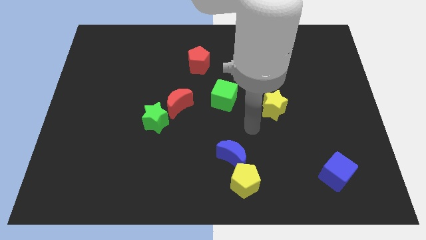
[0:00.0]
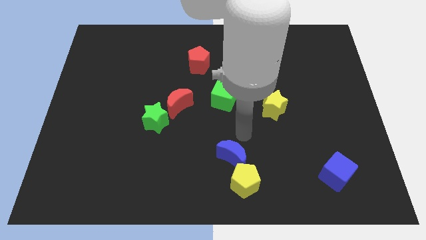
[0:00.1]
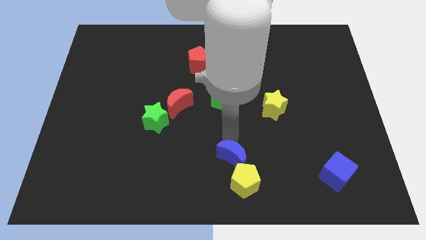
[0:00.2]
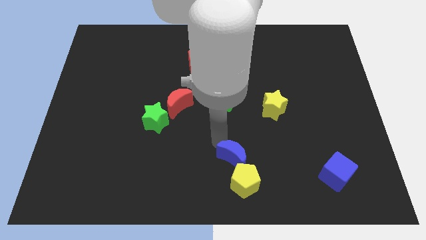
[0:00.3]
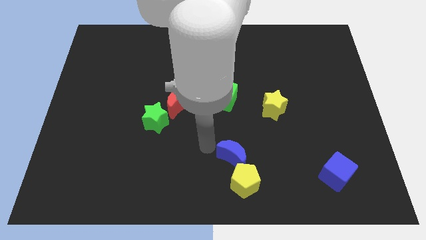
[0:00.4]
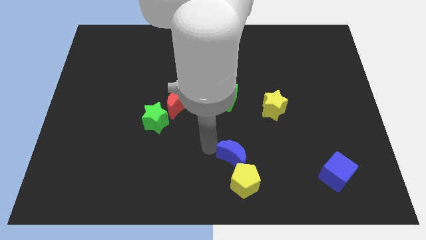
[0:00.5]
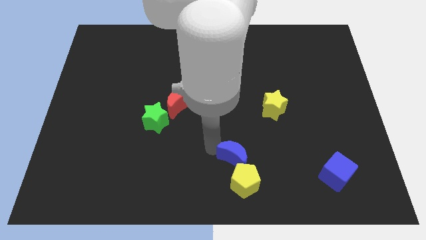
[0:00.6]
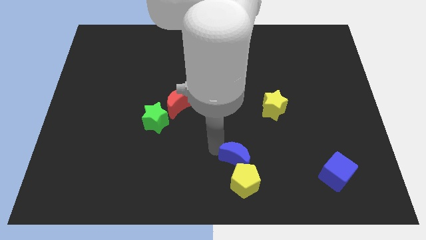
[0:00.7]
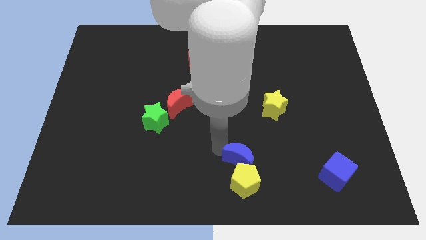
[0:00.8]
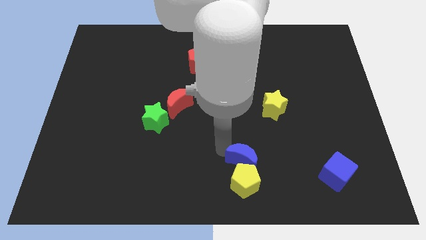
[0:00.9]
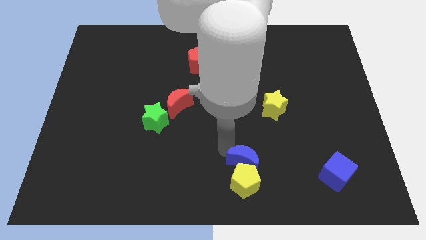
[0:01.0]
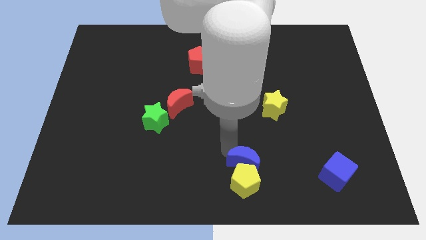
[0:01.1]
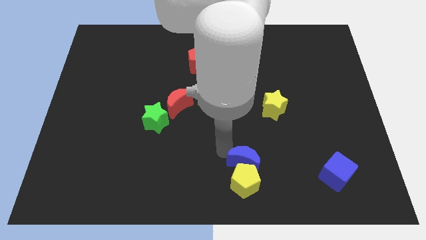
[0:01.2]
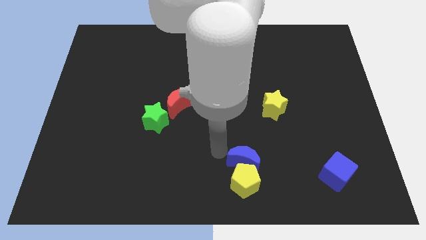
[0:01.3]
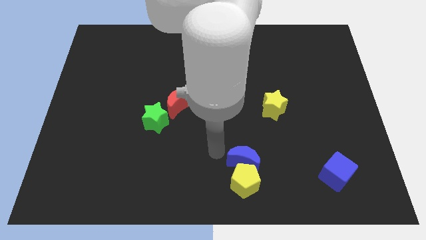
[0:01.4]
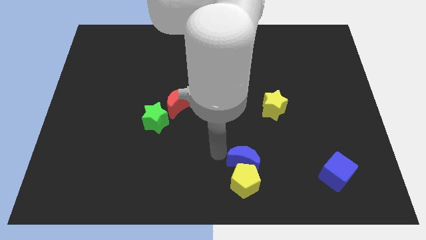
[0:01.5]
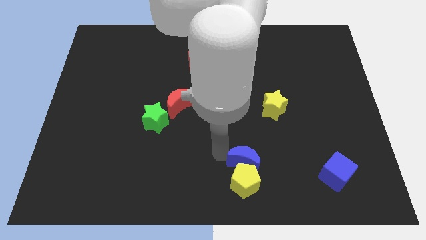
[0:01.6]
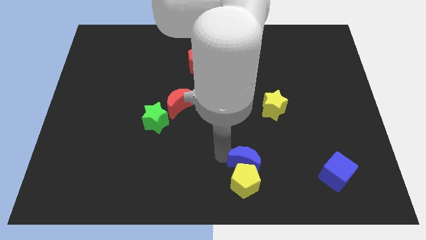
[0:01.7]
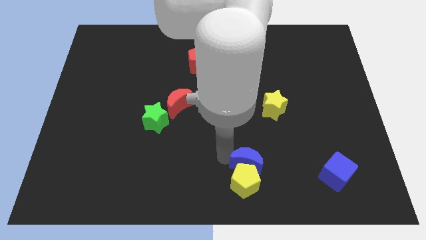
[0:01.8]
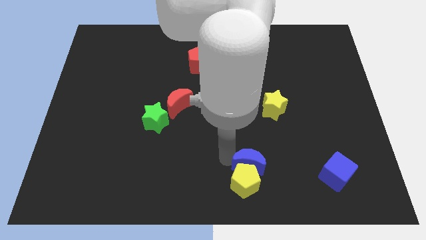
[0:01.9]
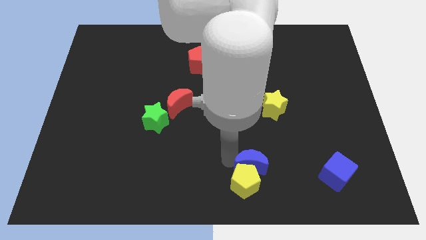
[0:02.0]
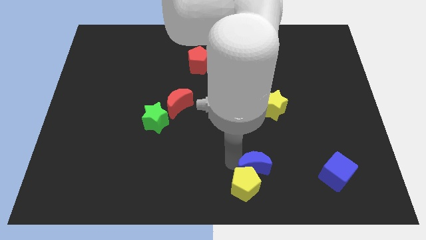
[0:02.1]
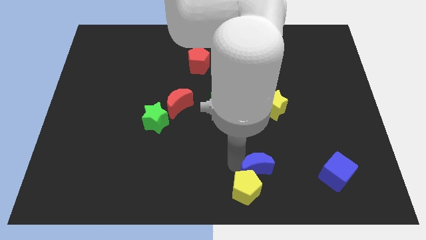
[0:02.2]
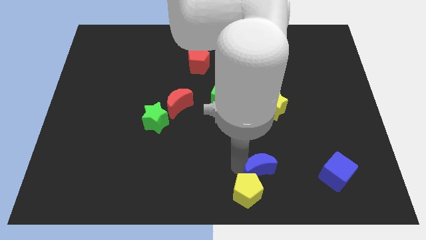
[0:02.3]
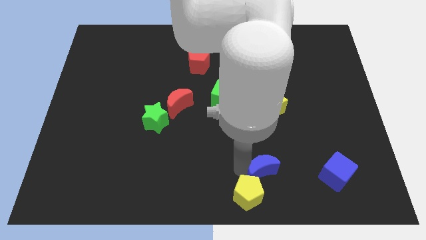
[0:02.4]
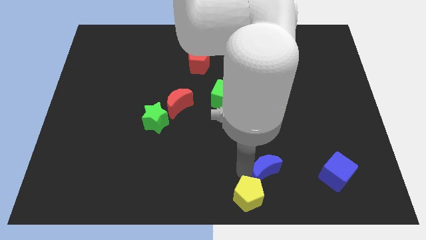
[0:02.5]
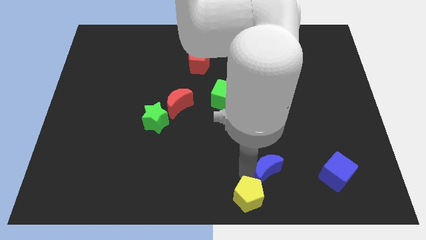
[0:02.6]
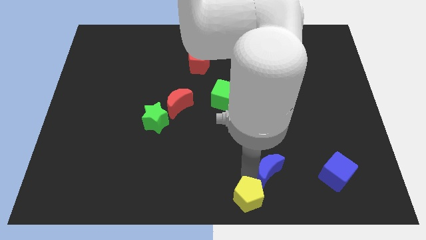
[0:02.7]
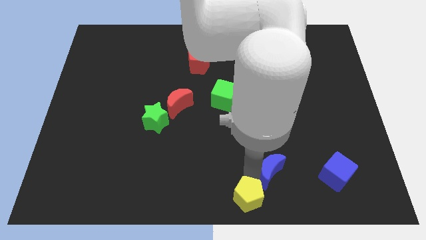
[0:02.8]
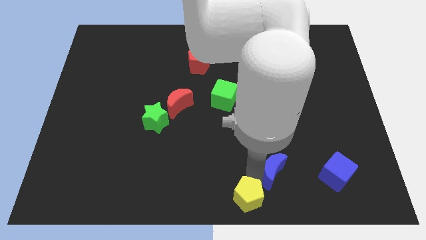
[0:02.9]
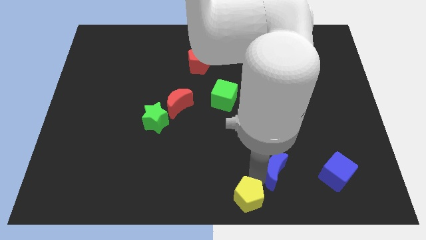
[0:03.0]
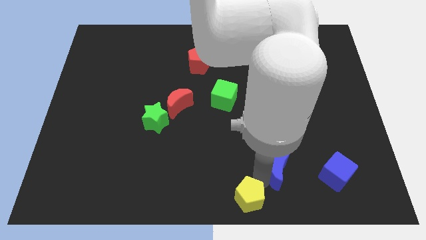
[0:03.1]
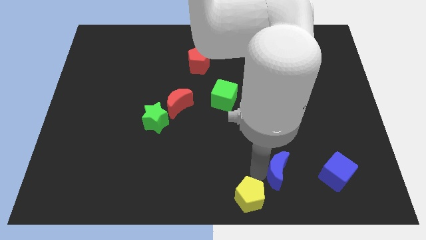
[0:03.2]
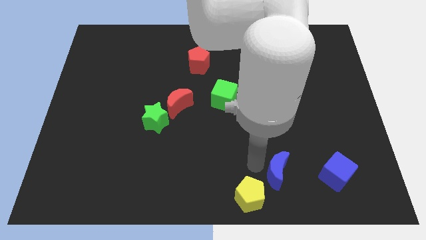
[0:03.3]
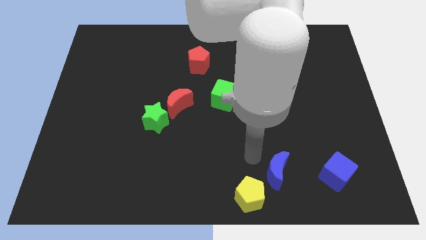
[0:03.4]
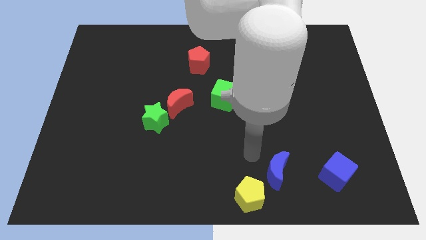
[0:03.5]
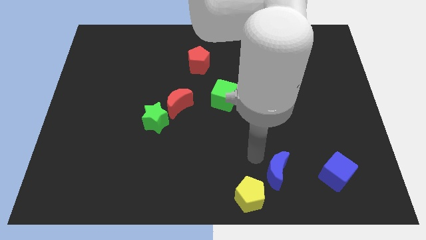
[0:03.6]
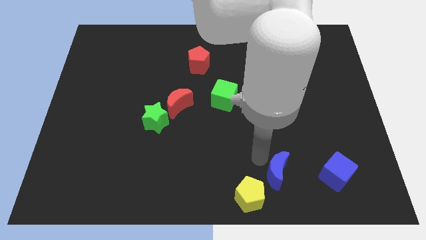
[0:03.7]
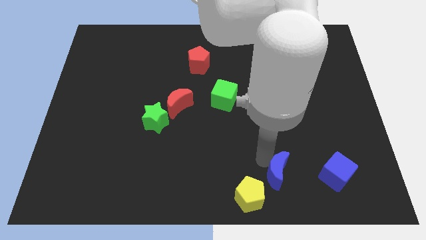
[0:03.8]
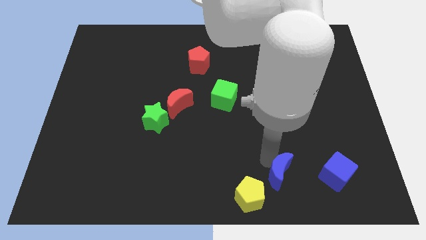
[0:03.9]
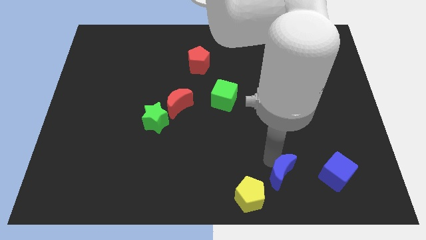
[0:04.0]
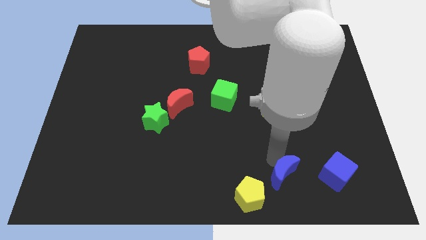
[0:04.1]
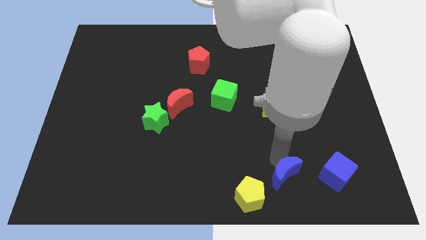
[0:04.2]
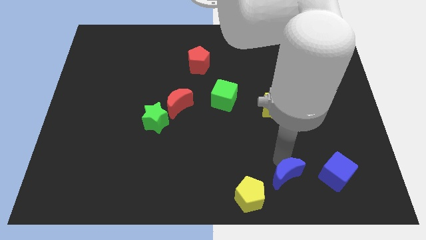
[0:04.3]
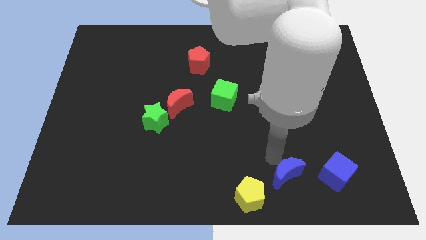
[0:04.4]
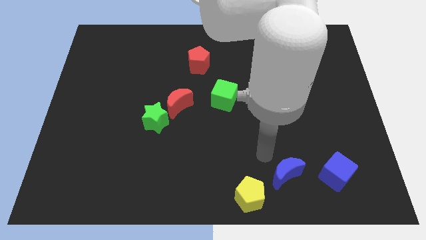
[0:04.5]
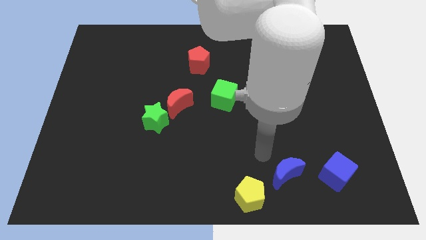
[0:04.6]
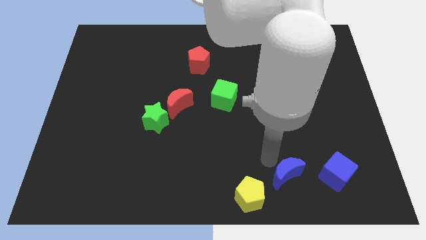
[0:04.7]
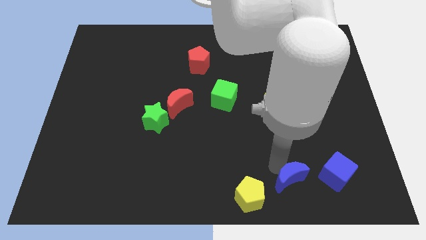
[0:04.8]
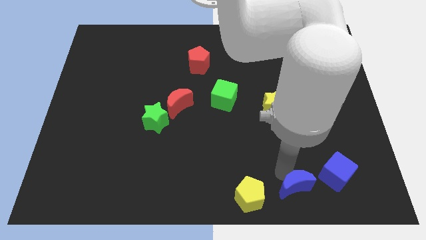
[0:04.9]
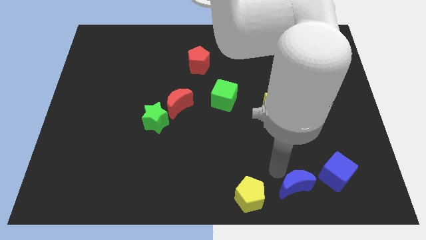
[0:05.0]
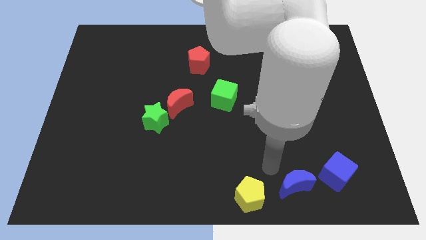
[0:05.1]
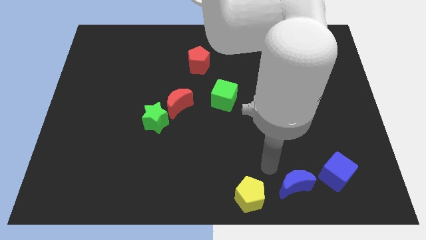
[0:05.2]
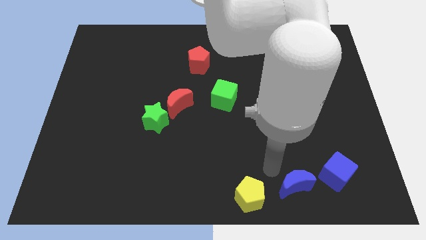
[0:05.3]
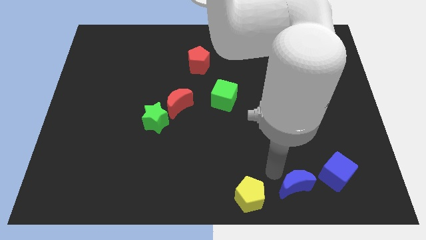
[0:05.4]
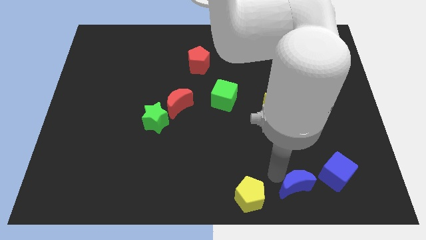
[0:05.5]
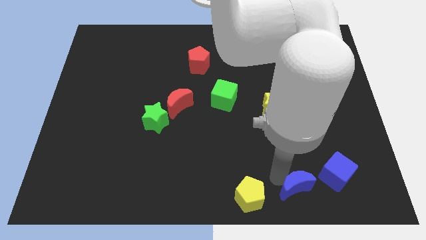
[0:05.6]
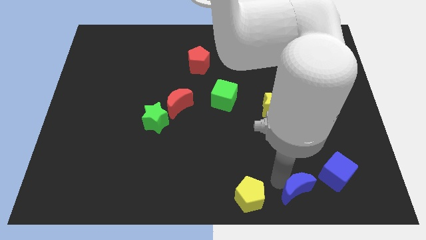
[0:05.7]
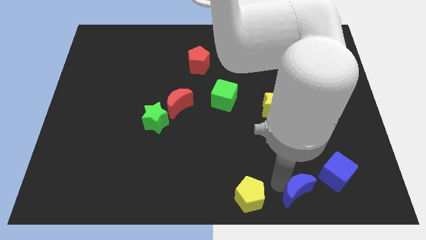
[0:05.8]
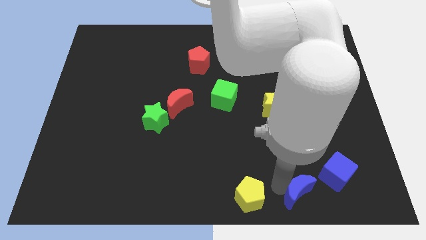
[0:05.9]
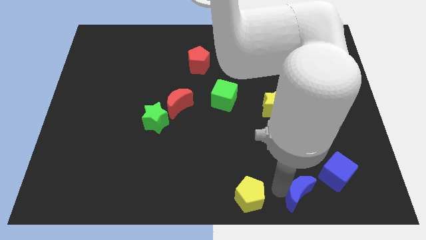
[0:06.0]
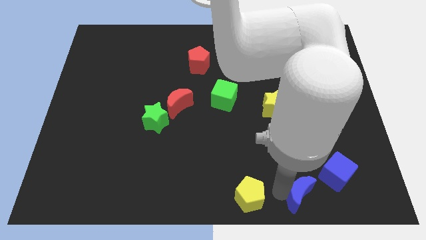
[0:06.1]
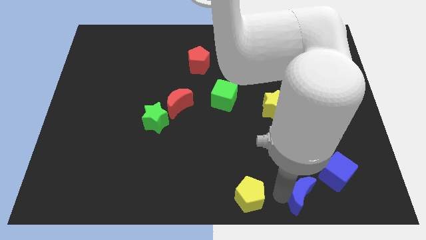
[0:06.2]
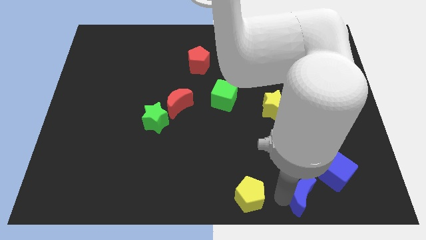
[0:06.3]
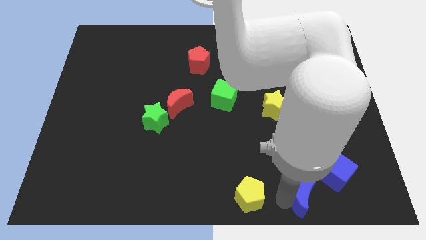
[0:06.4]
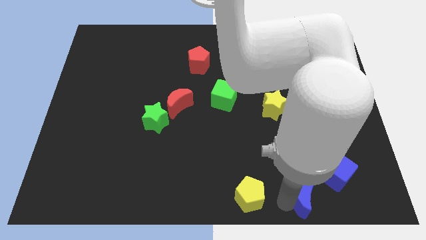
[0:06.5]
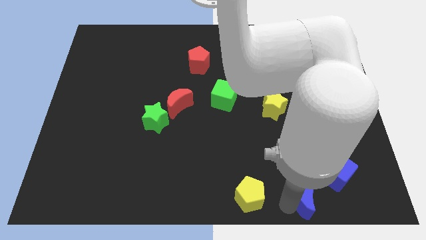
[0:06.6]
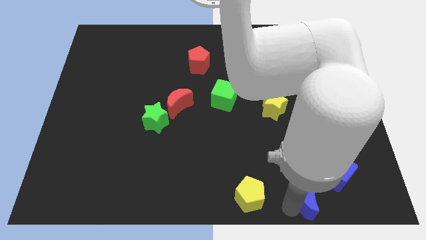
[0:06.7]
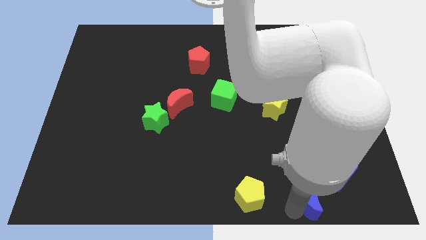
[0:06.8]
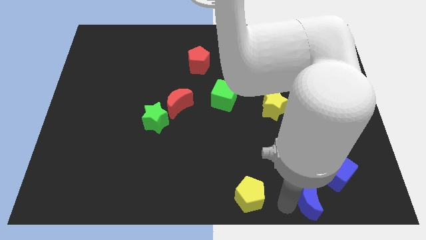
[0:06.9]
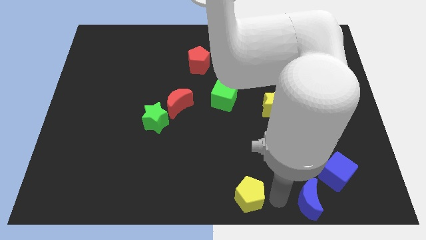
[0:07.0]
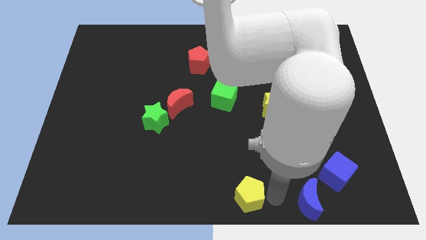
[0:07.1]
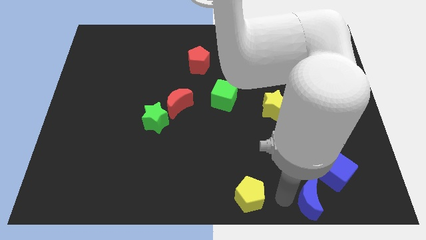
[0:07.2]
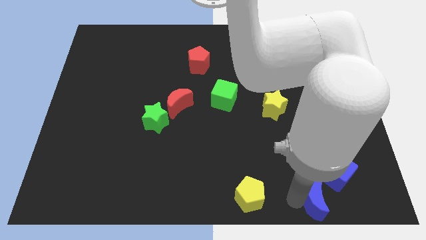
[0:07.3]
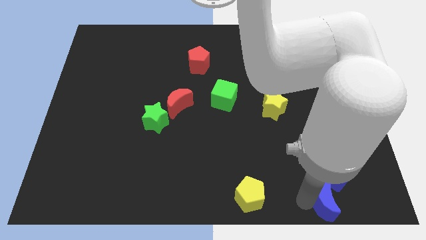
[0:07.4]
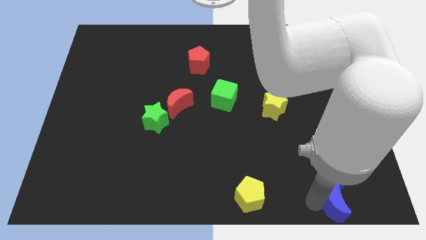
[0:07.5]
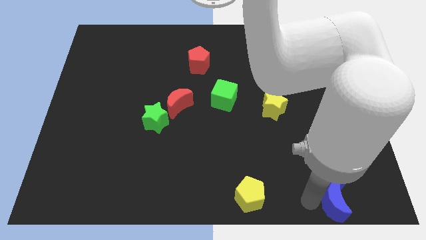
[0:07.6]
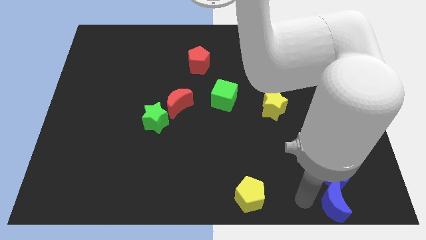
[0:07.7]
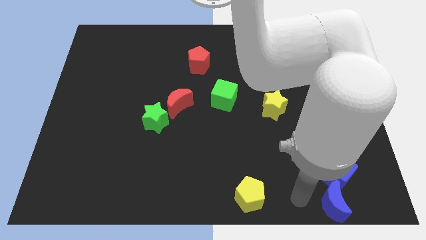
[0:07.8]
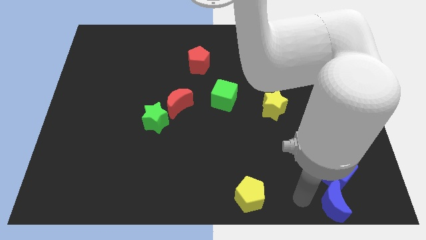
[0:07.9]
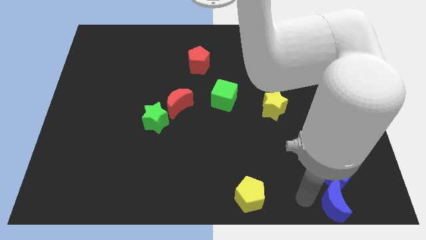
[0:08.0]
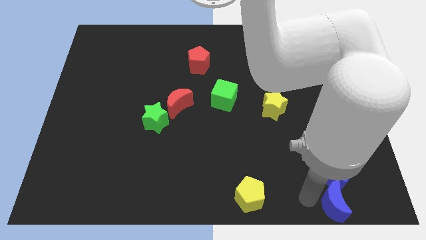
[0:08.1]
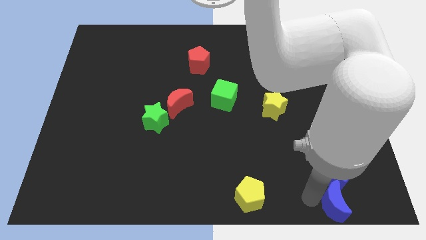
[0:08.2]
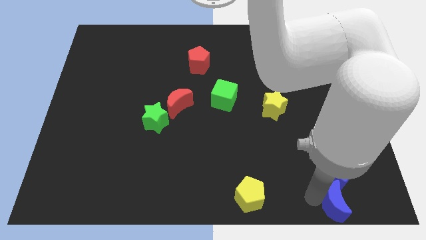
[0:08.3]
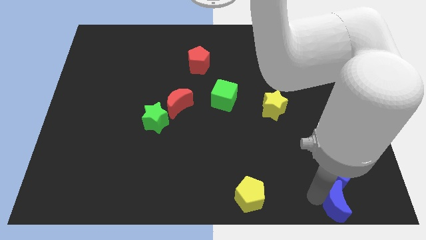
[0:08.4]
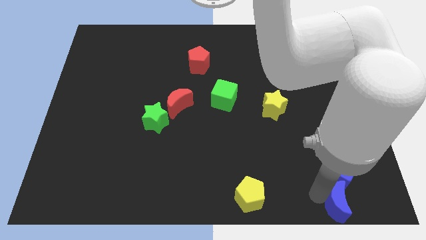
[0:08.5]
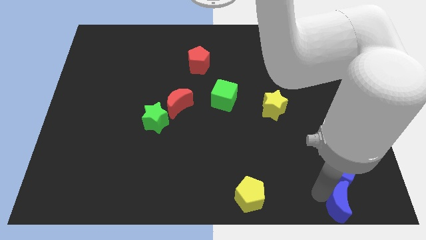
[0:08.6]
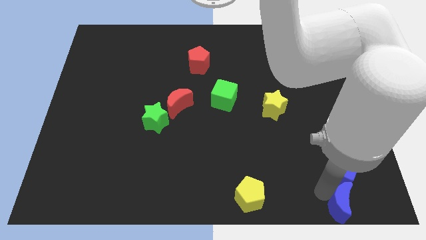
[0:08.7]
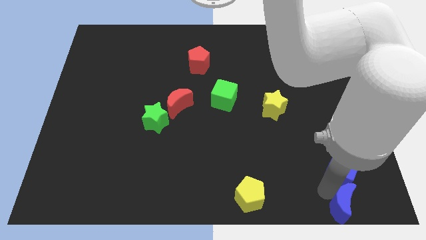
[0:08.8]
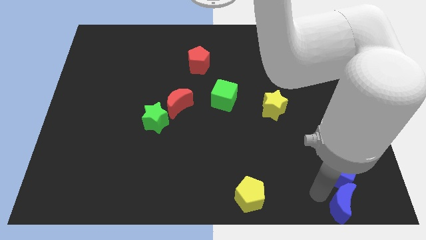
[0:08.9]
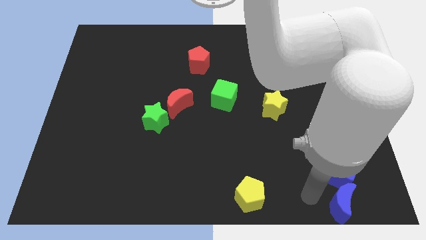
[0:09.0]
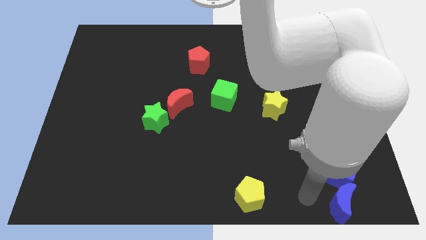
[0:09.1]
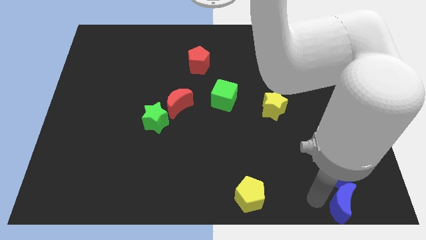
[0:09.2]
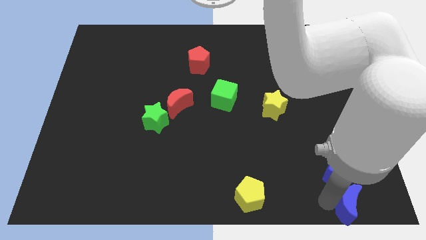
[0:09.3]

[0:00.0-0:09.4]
slide the blue moon to the bottom right of the board
